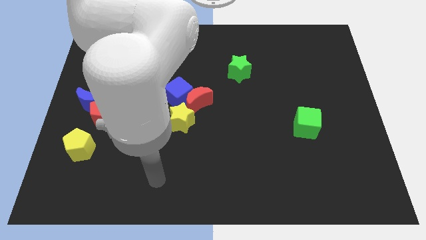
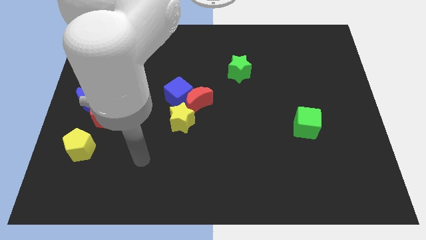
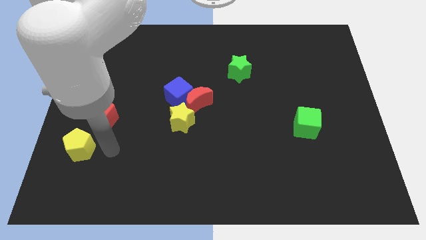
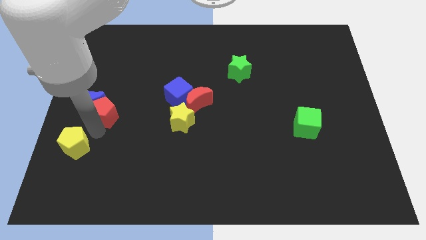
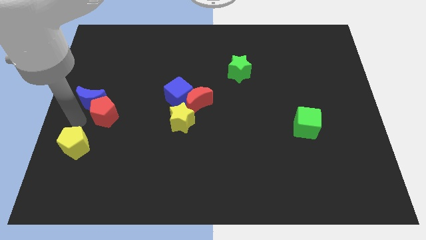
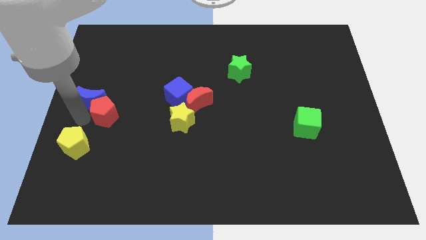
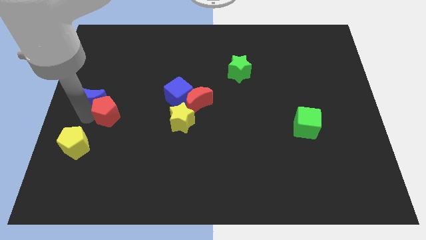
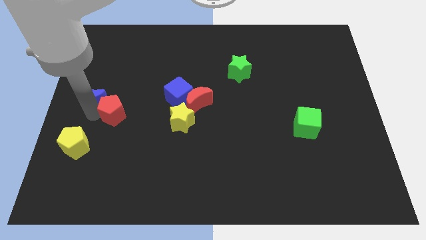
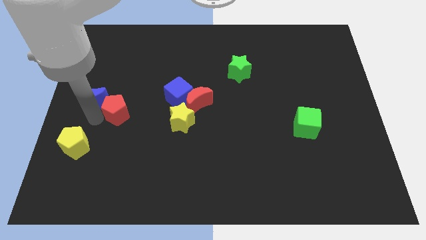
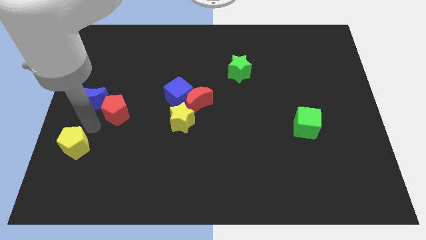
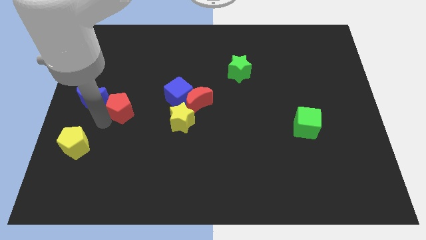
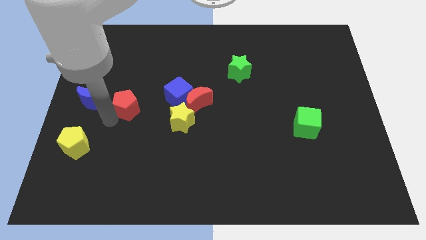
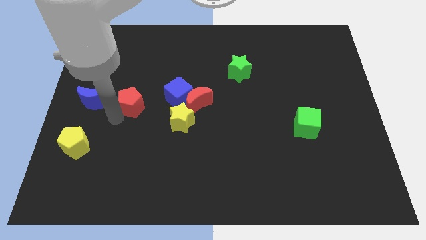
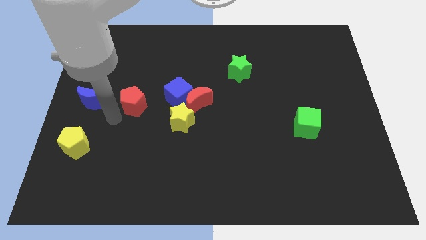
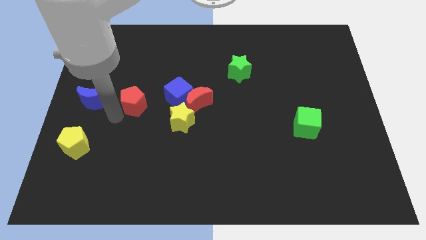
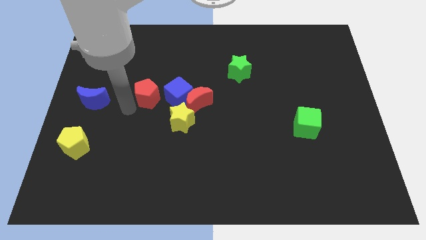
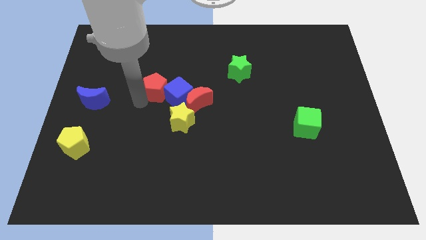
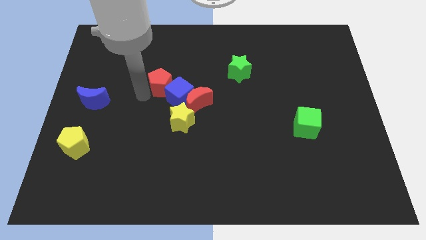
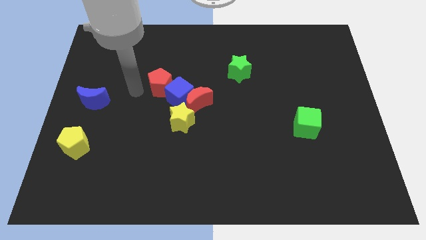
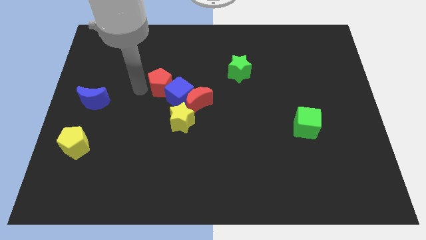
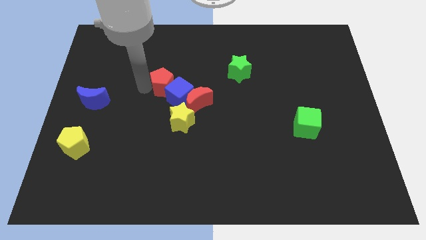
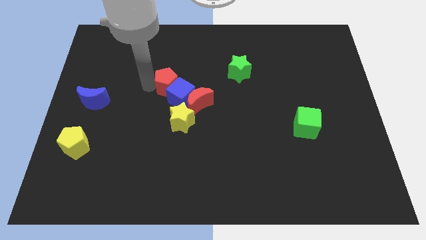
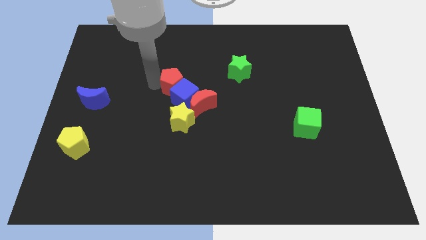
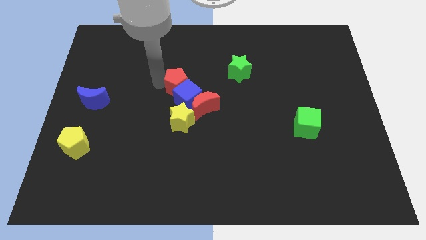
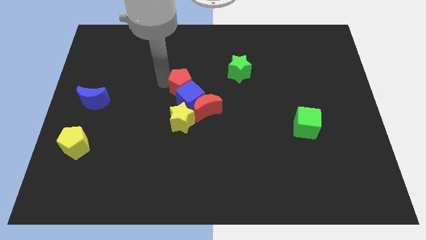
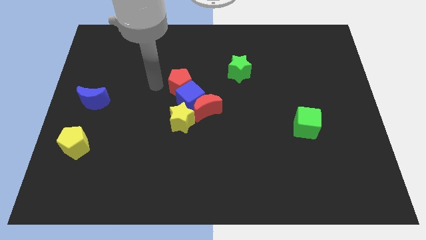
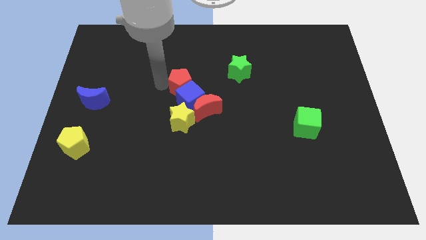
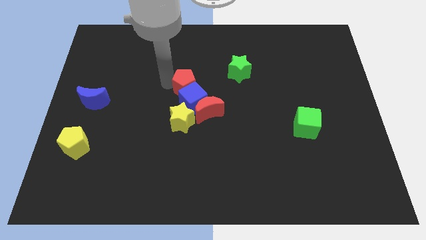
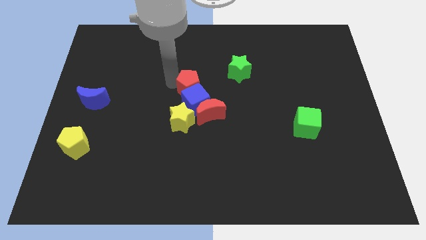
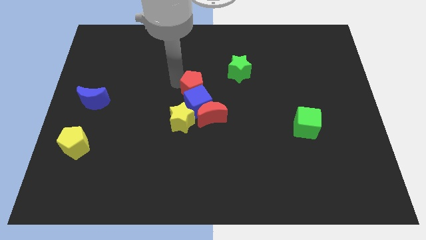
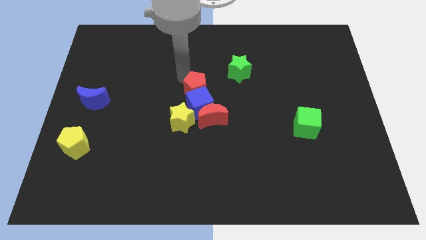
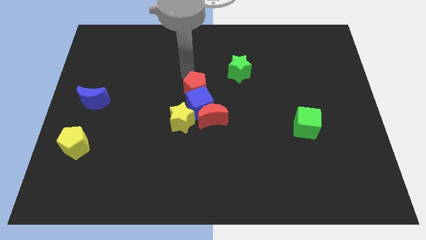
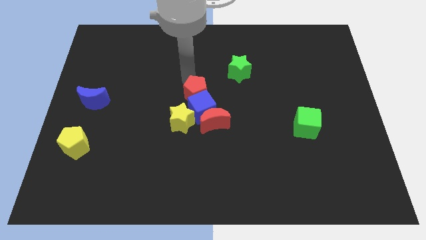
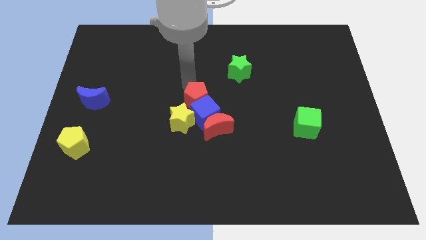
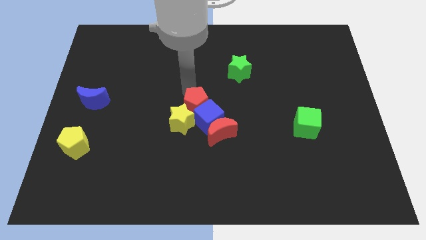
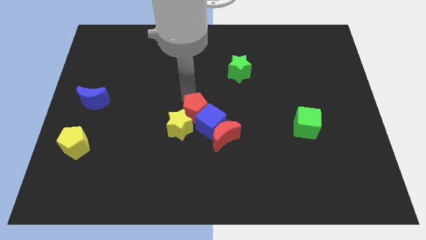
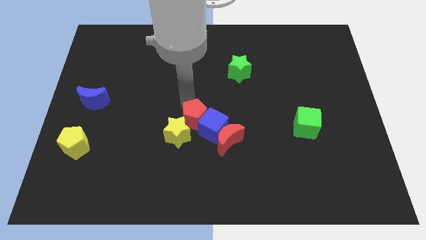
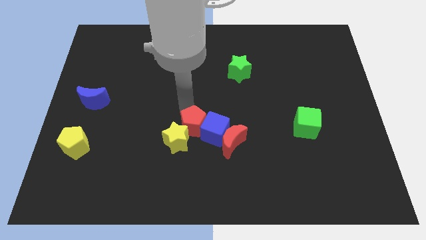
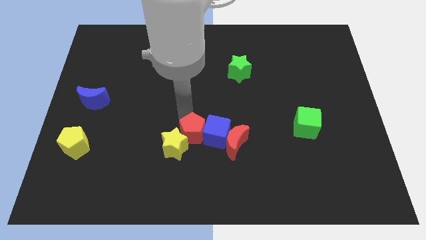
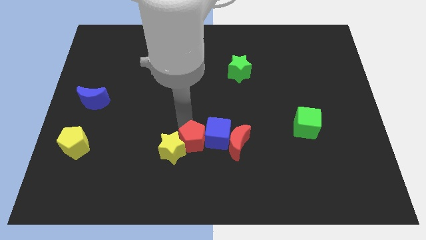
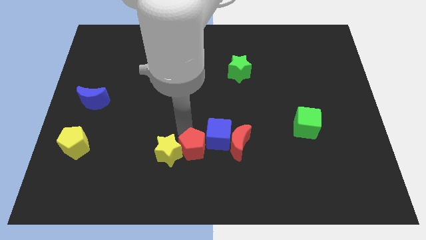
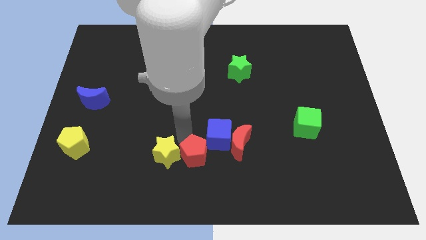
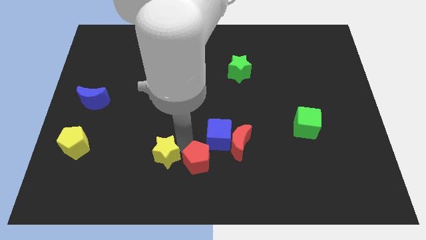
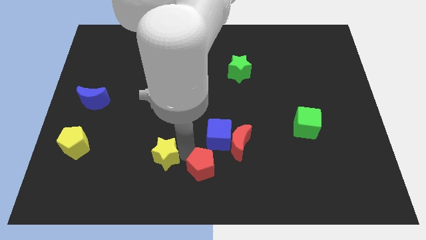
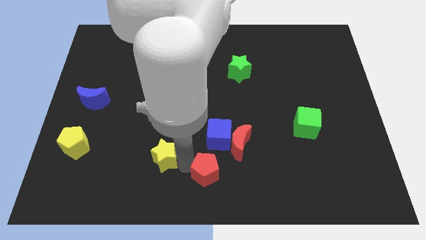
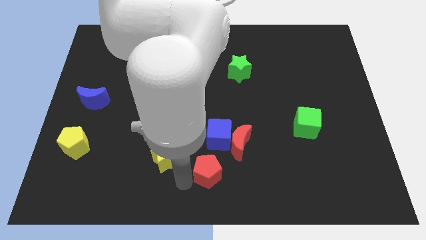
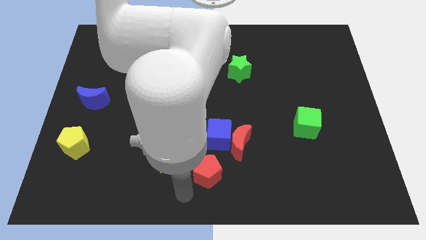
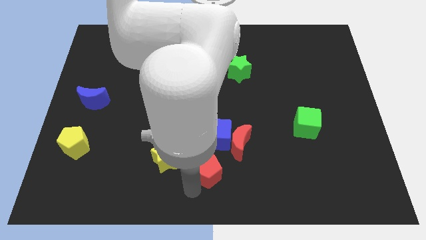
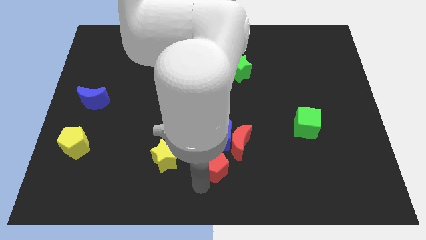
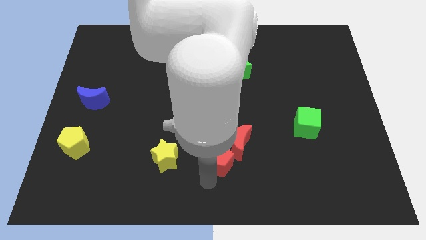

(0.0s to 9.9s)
put the red pentagon towards the red moon

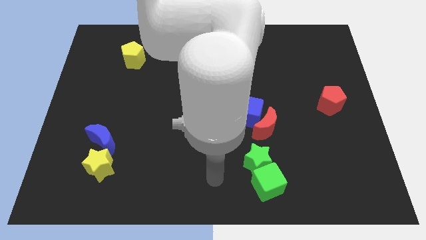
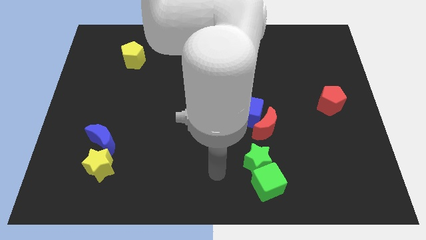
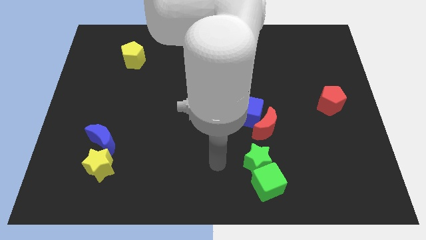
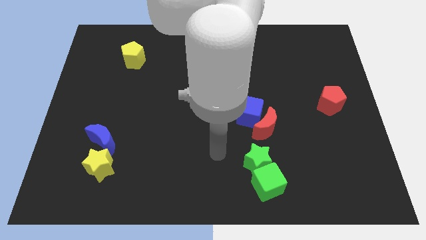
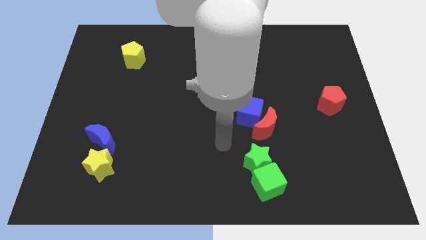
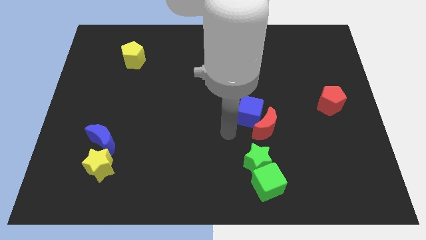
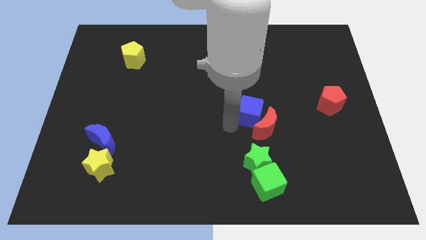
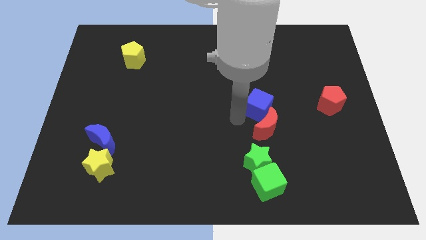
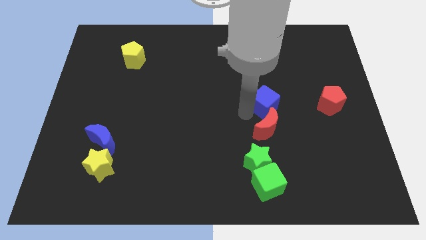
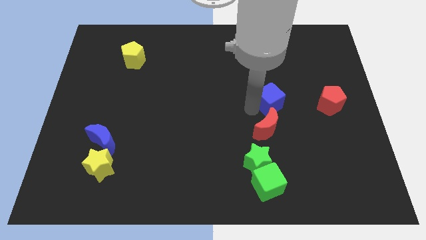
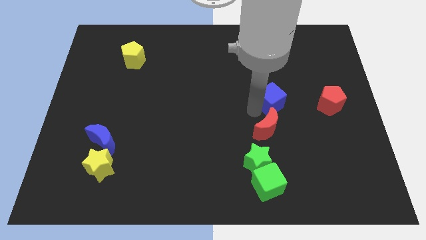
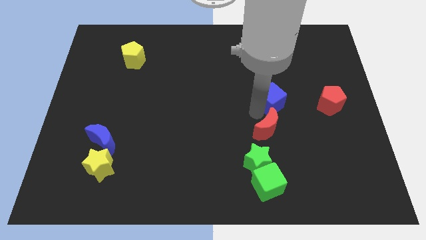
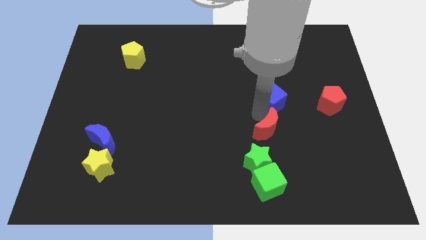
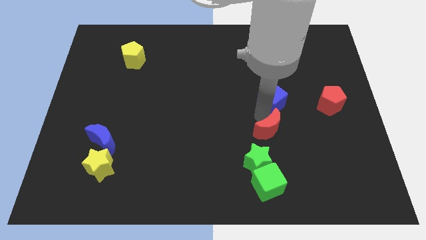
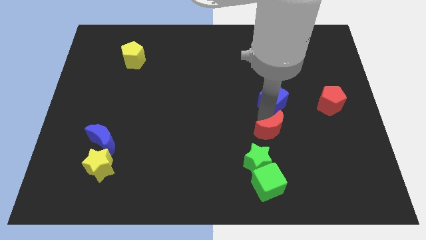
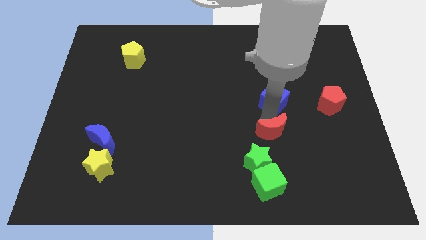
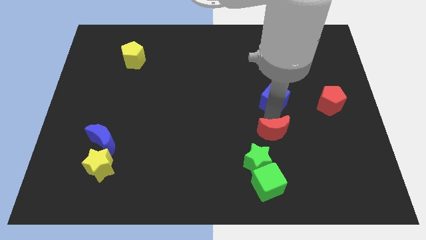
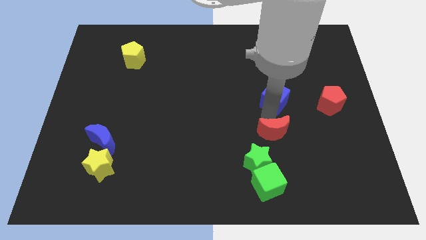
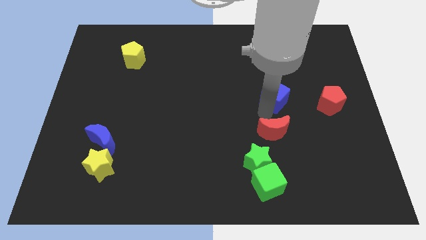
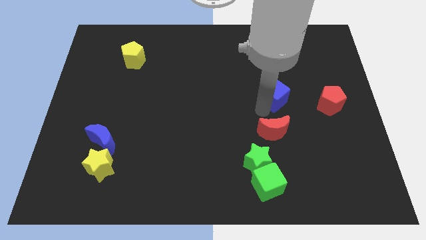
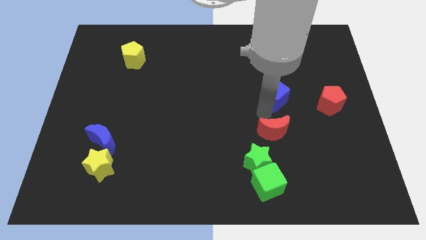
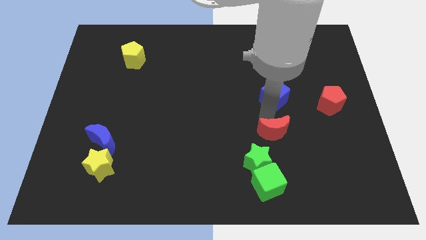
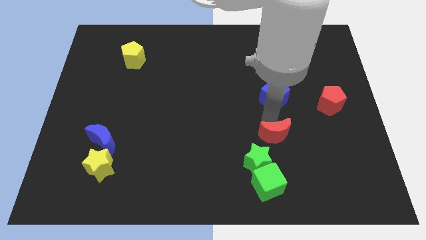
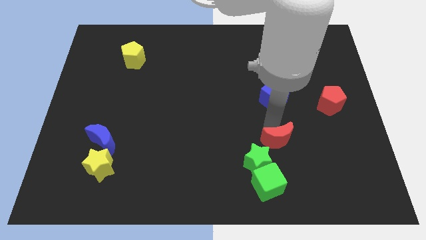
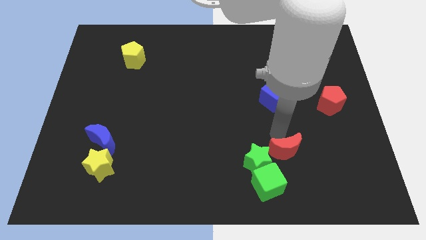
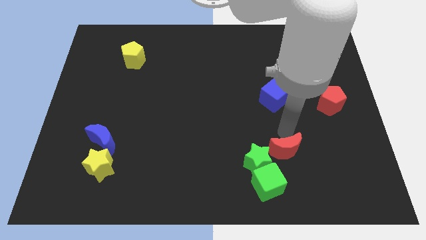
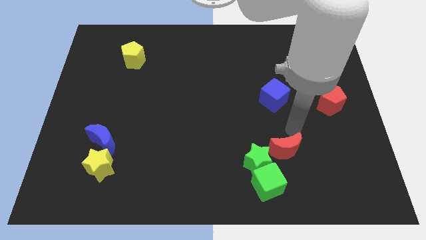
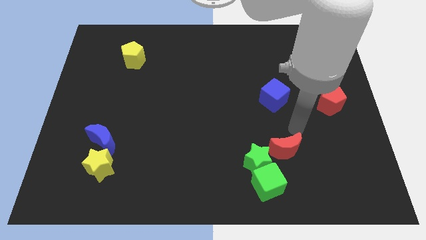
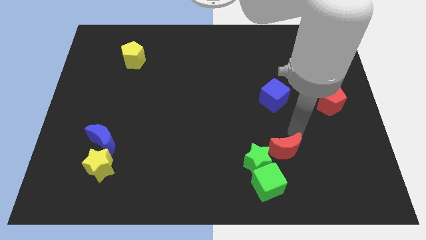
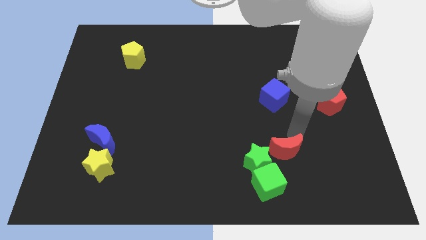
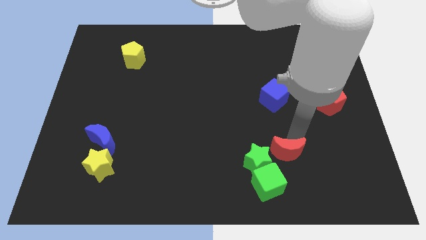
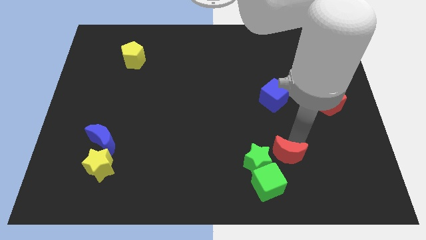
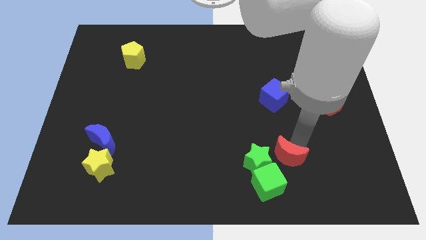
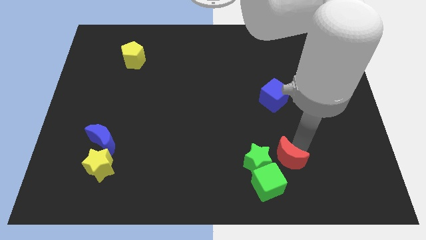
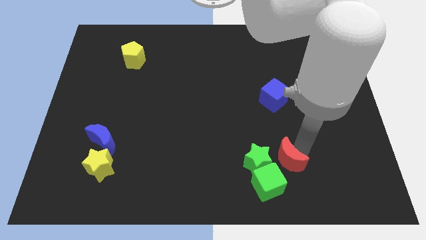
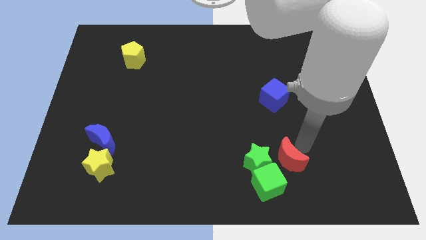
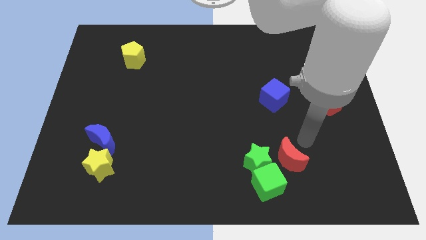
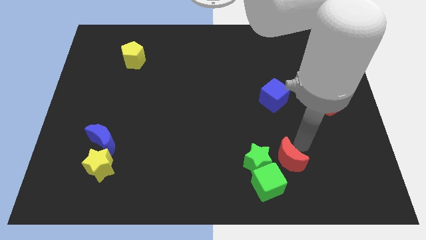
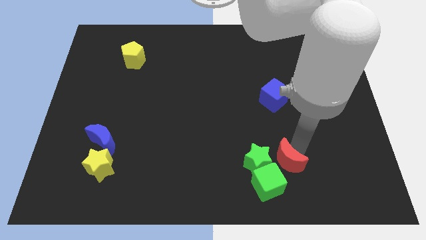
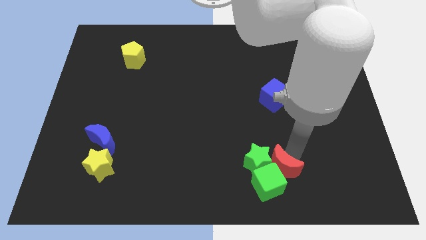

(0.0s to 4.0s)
slide the red moon towards the green cube
